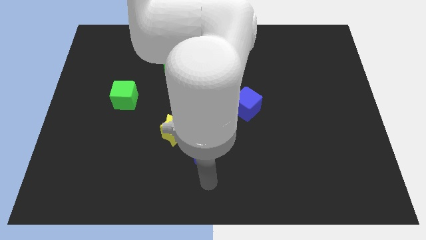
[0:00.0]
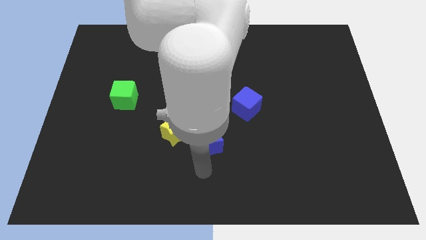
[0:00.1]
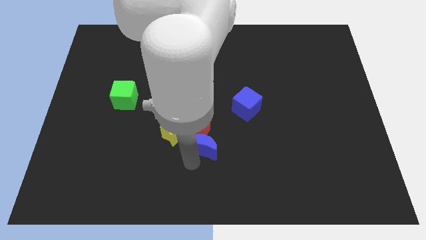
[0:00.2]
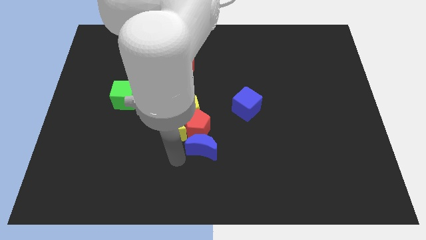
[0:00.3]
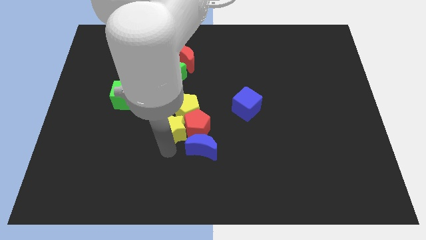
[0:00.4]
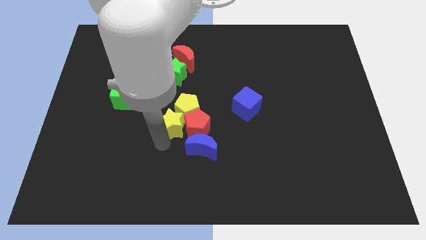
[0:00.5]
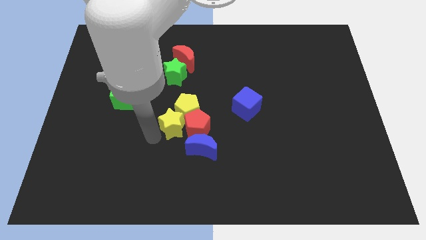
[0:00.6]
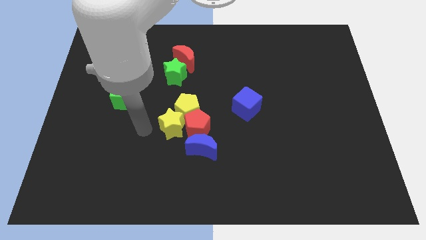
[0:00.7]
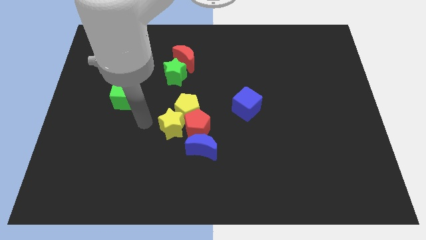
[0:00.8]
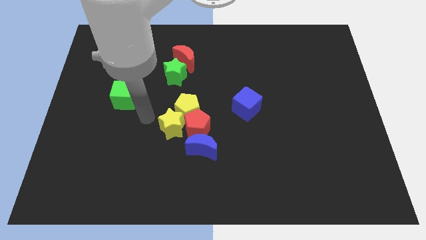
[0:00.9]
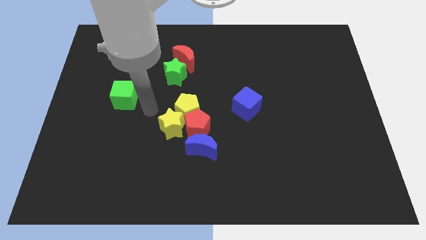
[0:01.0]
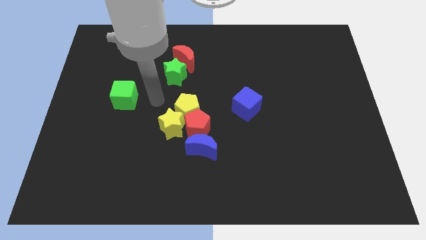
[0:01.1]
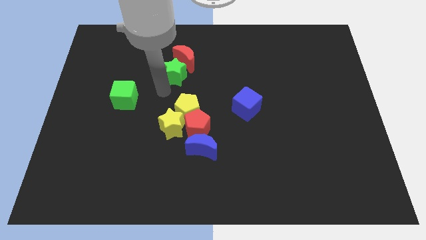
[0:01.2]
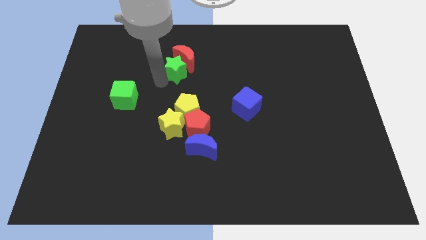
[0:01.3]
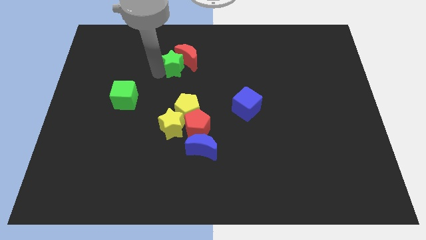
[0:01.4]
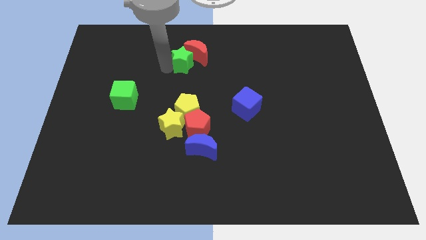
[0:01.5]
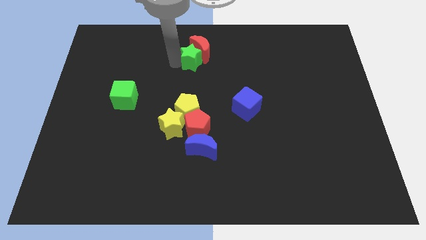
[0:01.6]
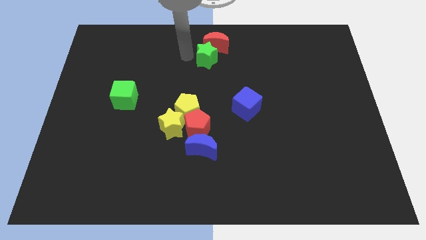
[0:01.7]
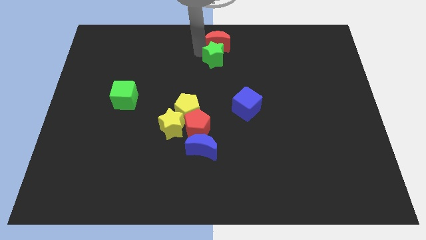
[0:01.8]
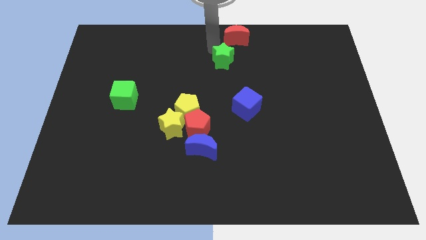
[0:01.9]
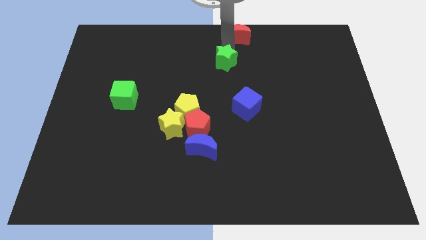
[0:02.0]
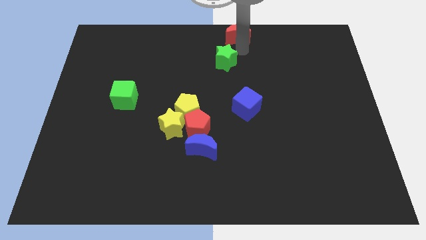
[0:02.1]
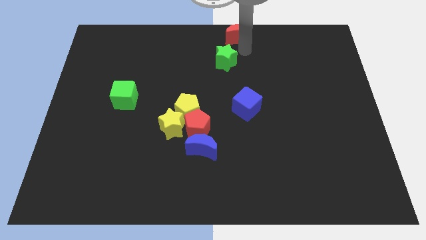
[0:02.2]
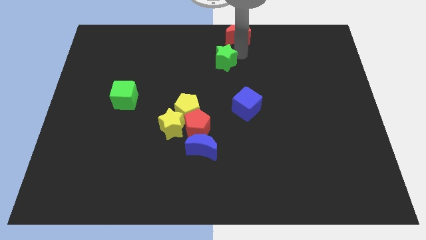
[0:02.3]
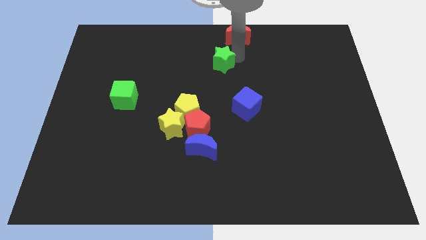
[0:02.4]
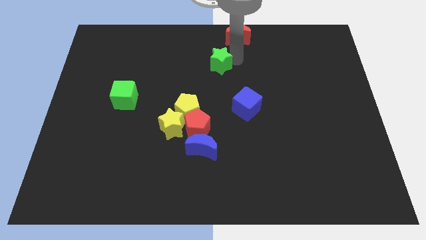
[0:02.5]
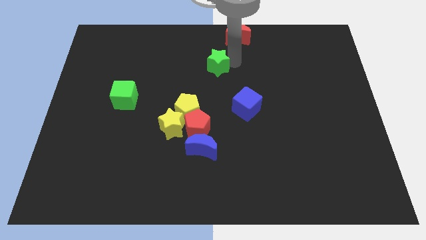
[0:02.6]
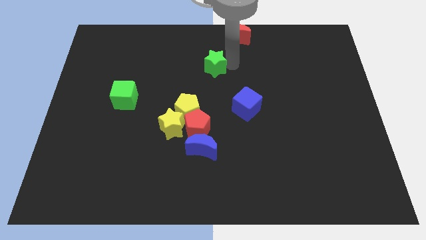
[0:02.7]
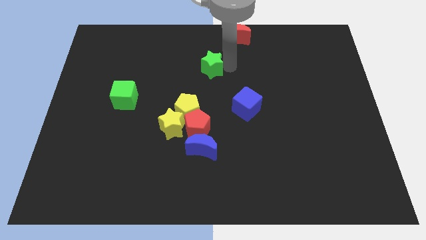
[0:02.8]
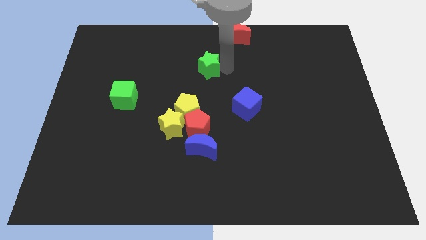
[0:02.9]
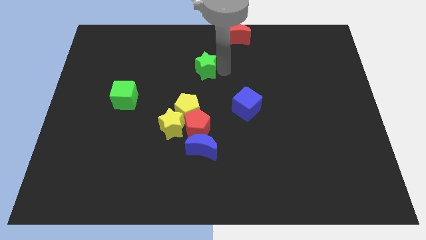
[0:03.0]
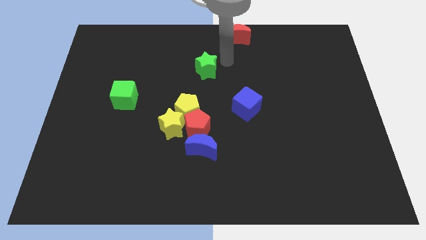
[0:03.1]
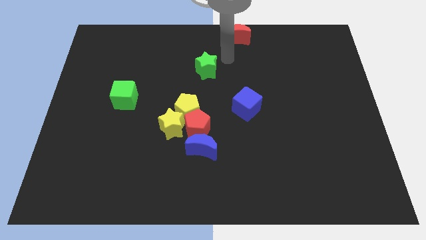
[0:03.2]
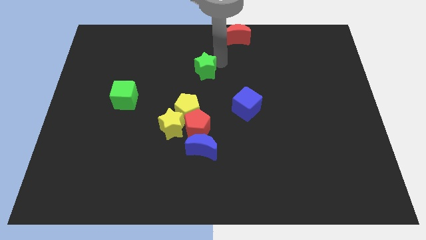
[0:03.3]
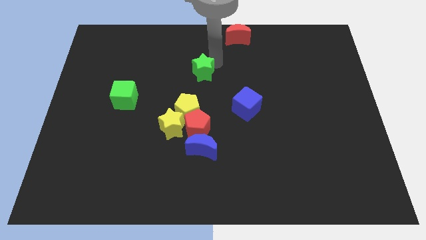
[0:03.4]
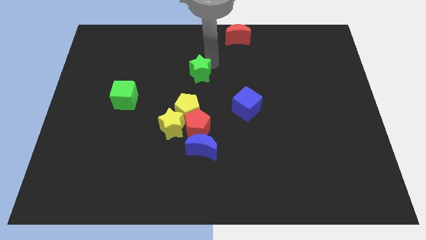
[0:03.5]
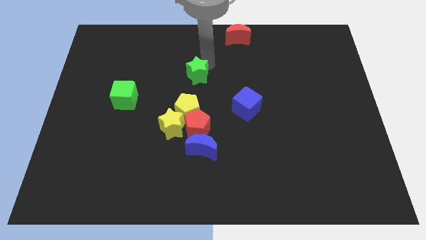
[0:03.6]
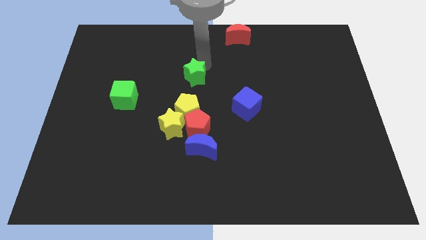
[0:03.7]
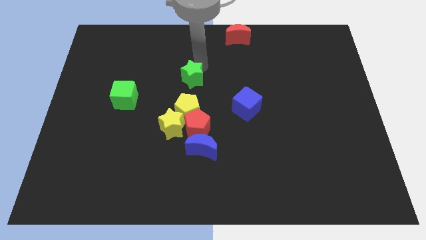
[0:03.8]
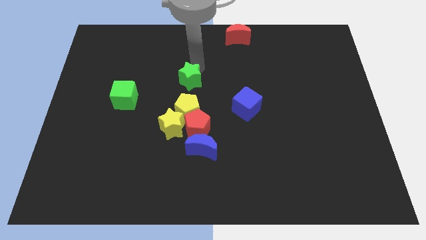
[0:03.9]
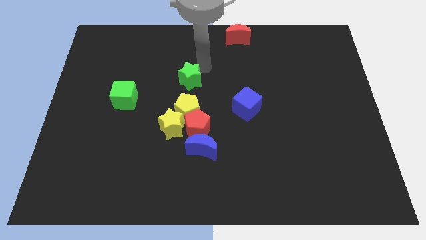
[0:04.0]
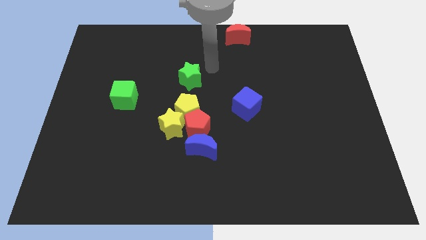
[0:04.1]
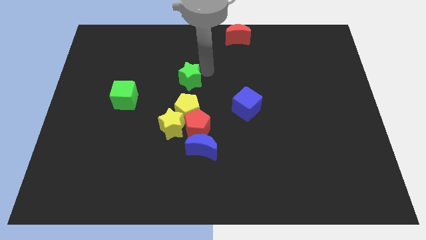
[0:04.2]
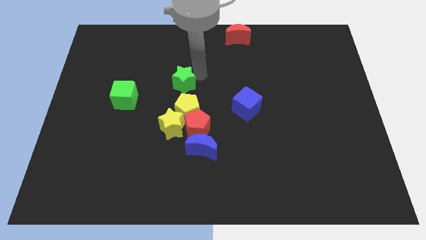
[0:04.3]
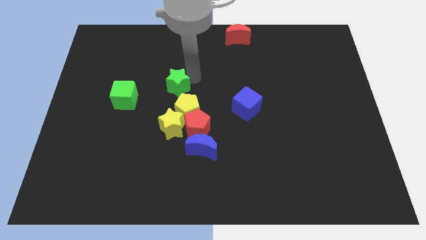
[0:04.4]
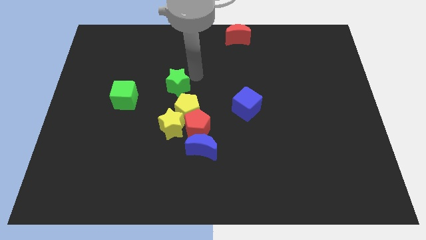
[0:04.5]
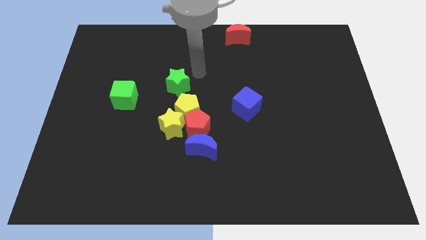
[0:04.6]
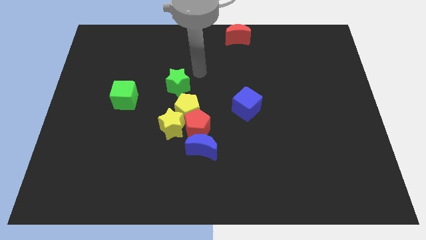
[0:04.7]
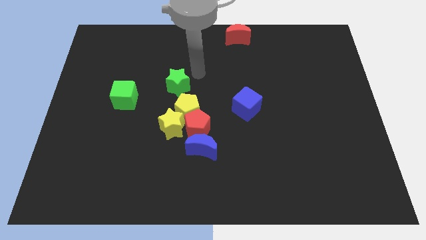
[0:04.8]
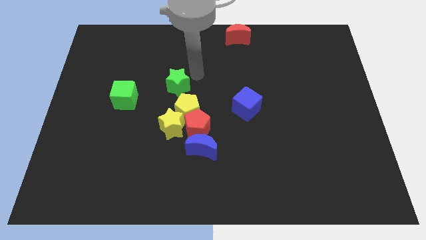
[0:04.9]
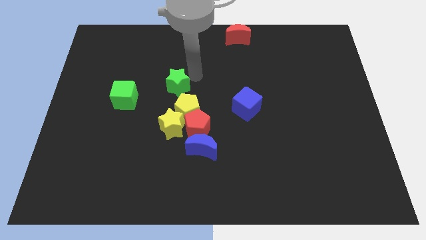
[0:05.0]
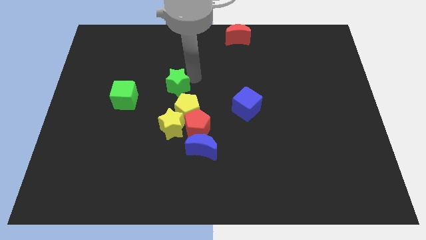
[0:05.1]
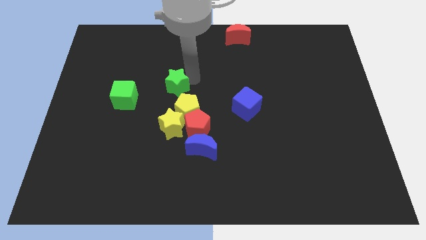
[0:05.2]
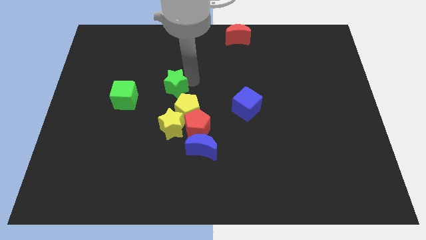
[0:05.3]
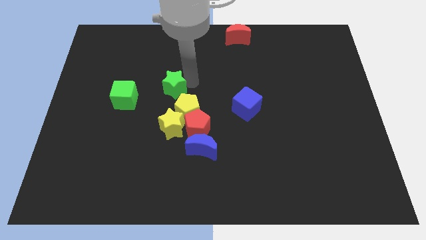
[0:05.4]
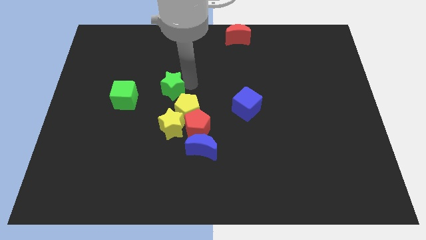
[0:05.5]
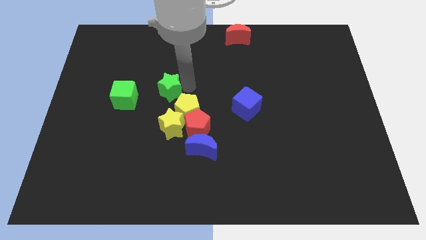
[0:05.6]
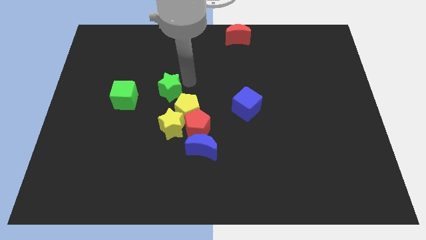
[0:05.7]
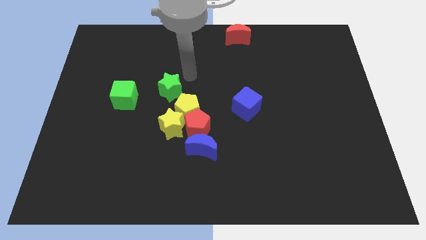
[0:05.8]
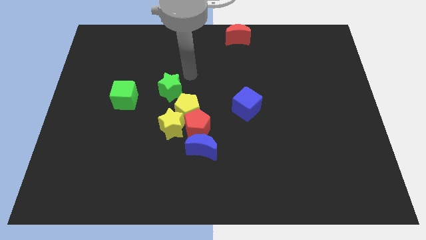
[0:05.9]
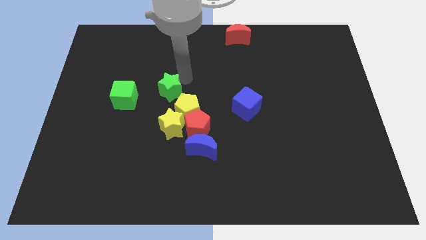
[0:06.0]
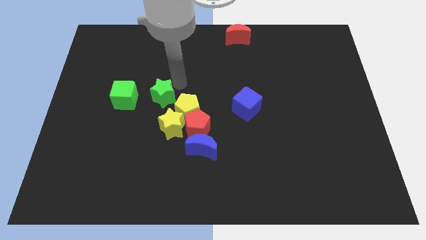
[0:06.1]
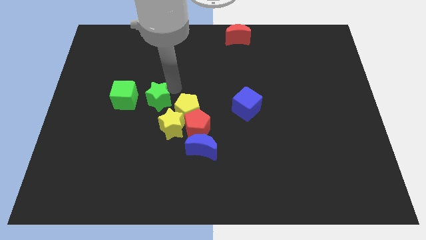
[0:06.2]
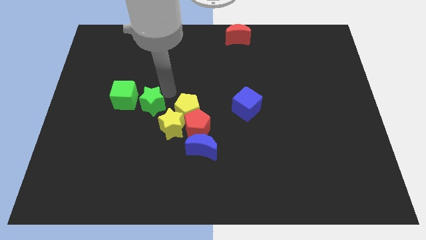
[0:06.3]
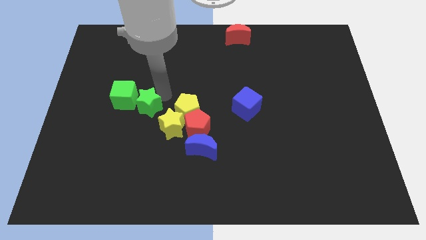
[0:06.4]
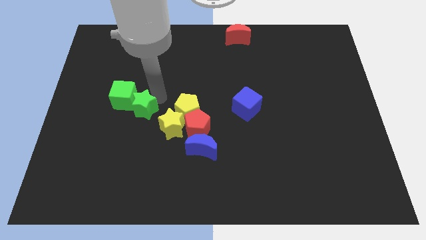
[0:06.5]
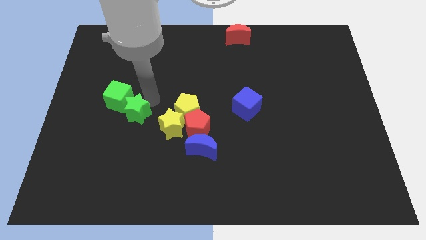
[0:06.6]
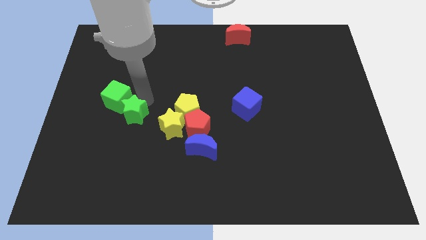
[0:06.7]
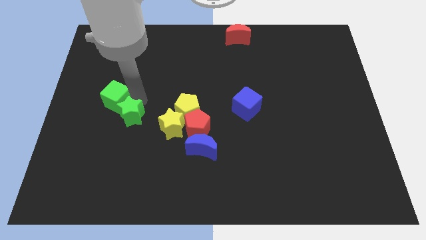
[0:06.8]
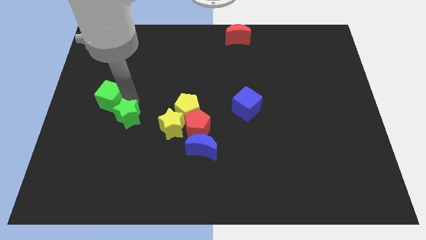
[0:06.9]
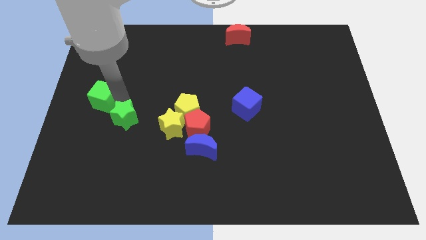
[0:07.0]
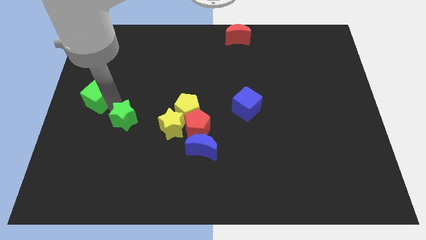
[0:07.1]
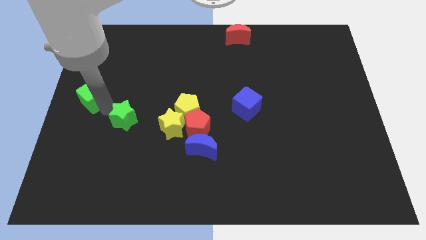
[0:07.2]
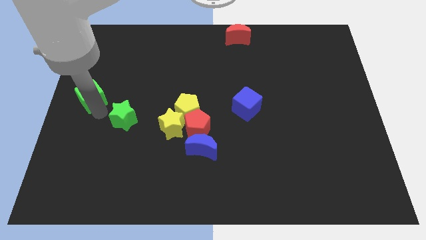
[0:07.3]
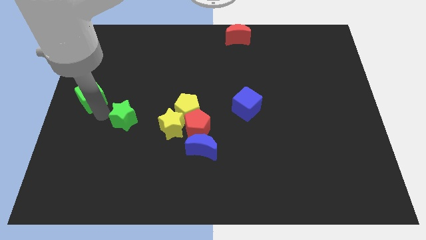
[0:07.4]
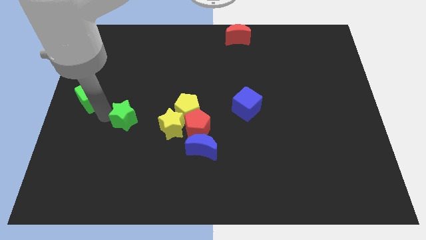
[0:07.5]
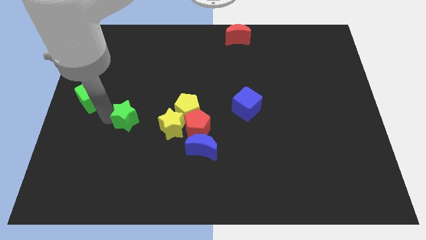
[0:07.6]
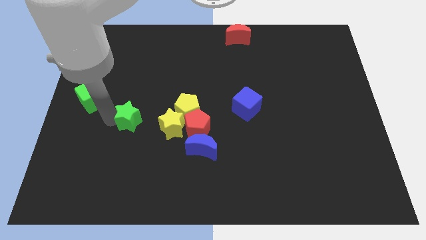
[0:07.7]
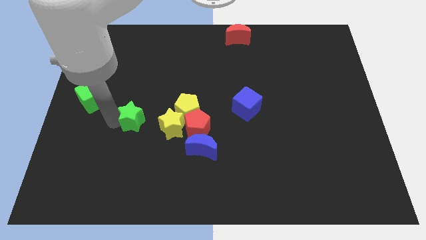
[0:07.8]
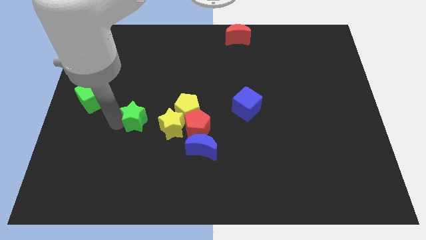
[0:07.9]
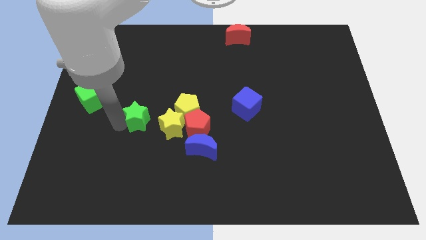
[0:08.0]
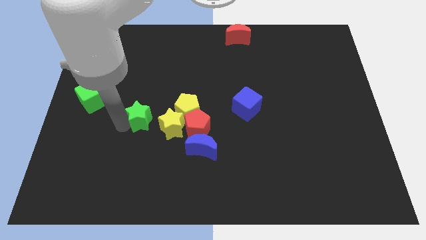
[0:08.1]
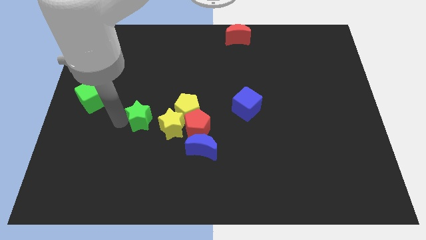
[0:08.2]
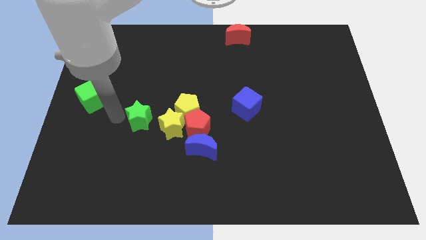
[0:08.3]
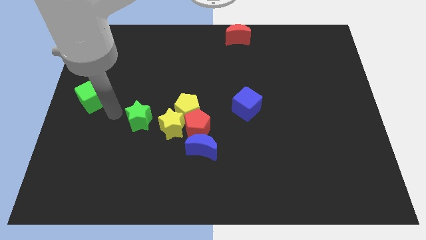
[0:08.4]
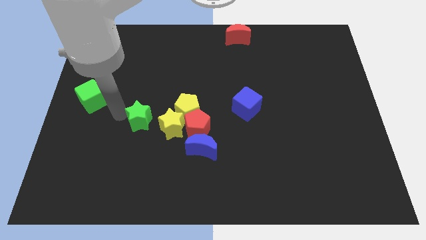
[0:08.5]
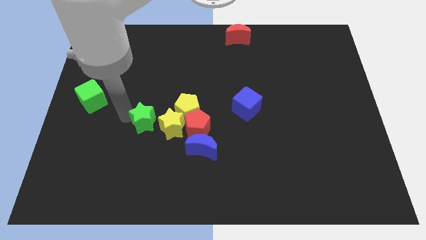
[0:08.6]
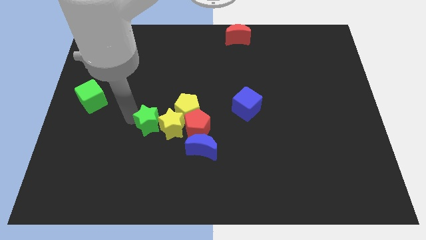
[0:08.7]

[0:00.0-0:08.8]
push the green star to the yellow star
